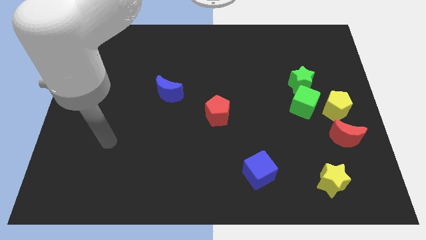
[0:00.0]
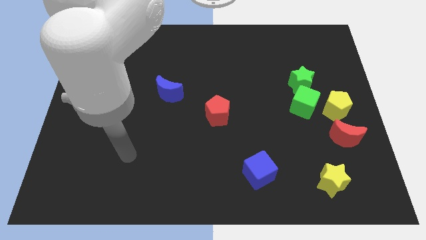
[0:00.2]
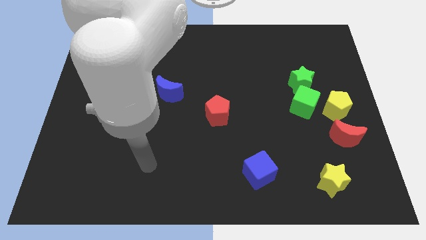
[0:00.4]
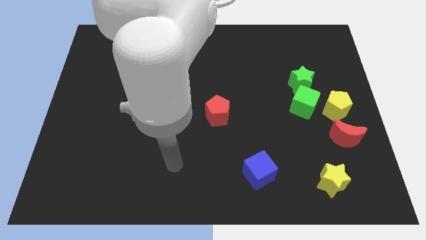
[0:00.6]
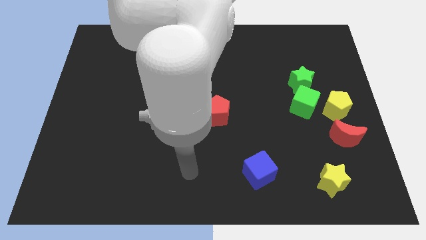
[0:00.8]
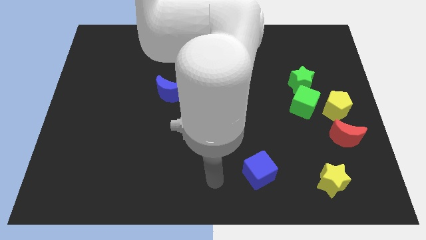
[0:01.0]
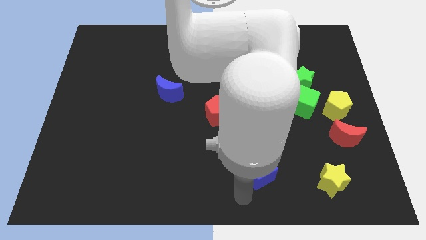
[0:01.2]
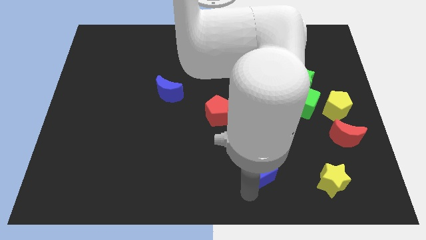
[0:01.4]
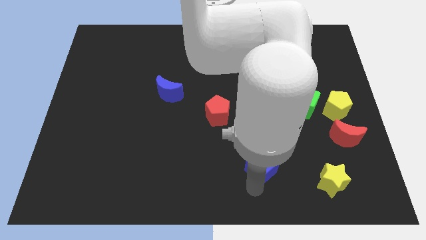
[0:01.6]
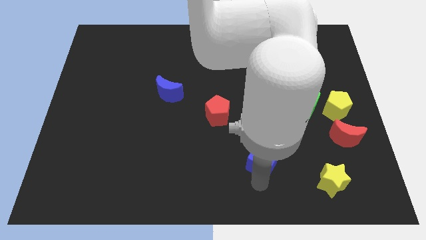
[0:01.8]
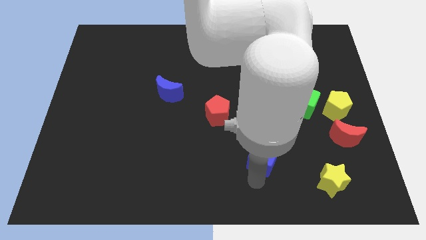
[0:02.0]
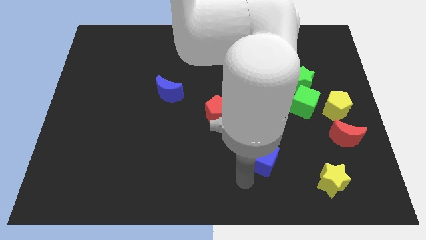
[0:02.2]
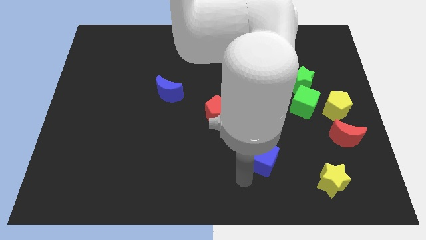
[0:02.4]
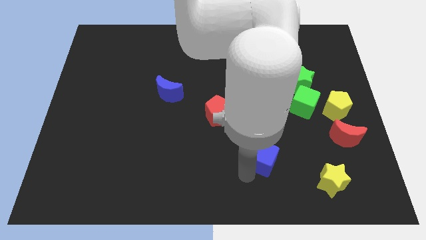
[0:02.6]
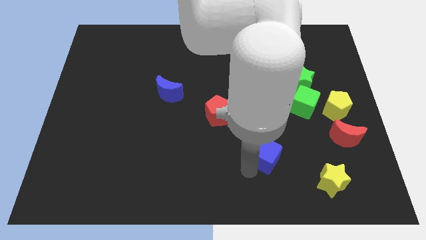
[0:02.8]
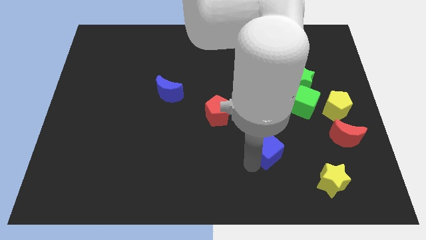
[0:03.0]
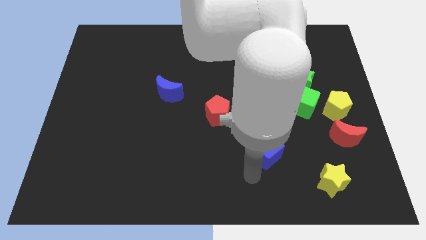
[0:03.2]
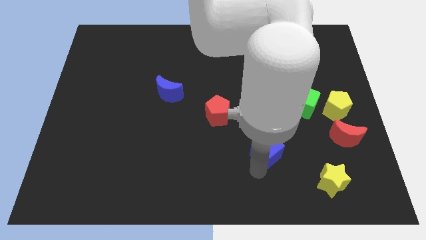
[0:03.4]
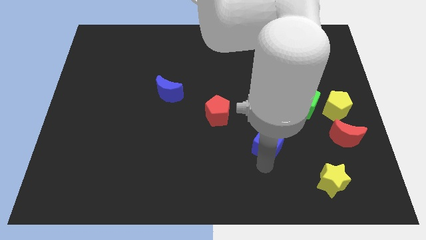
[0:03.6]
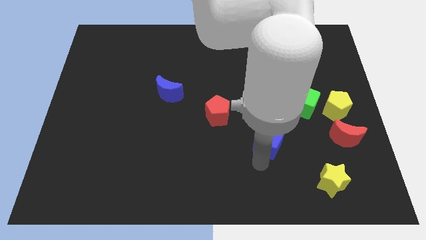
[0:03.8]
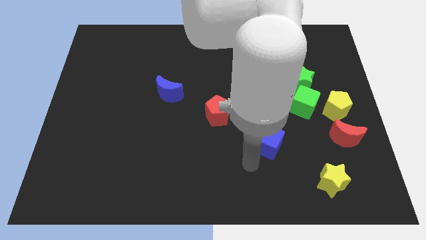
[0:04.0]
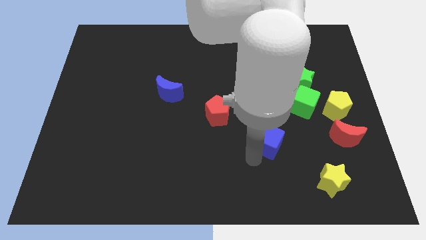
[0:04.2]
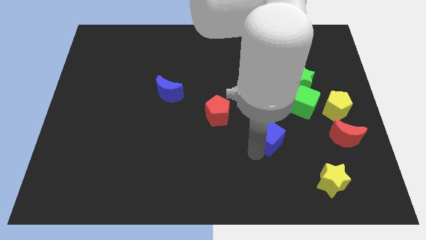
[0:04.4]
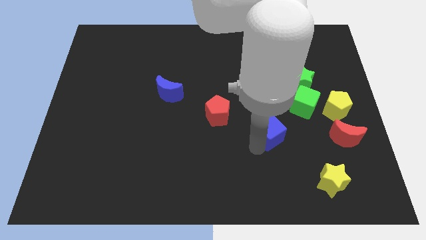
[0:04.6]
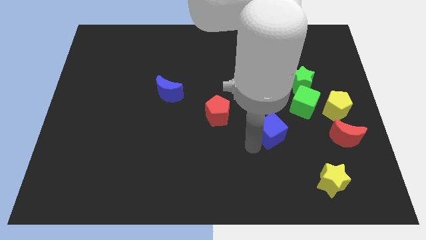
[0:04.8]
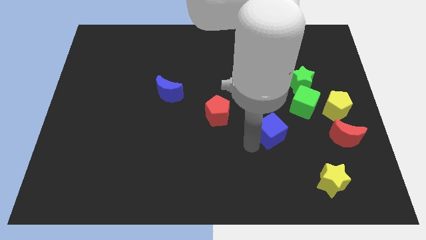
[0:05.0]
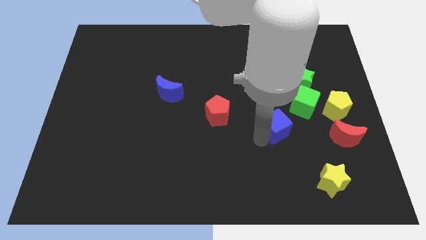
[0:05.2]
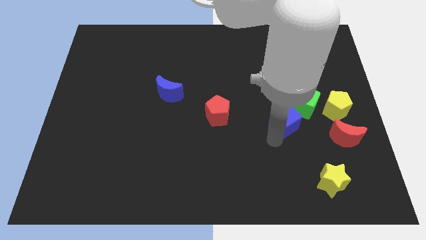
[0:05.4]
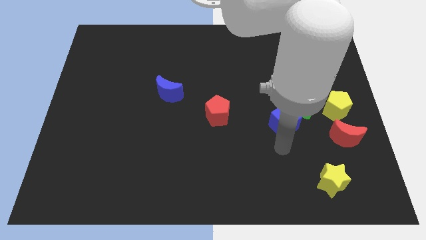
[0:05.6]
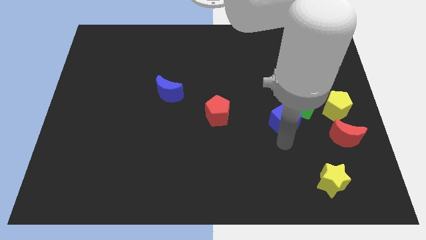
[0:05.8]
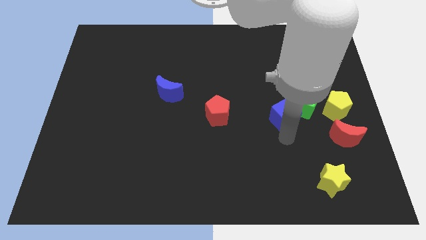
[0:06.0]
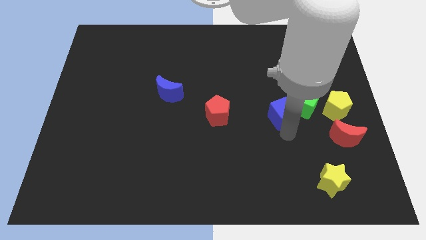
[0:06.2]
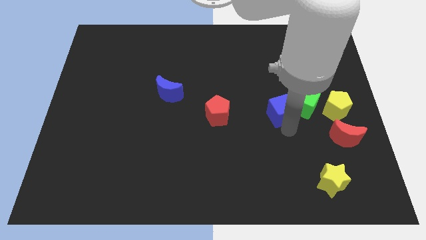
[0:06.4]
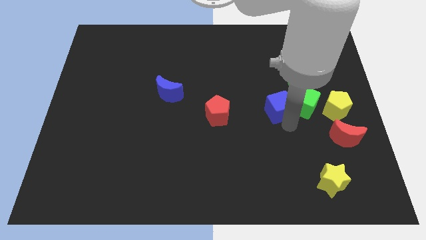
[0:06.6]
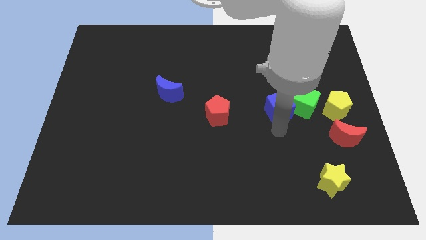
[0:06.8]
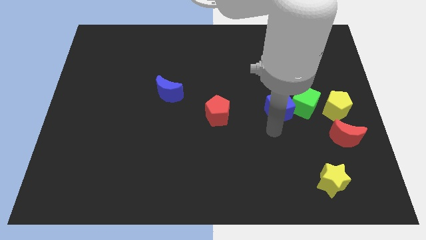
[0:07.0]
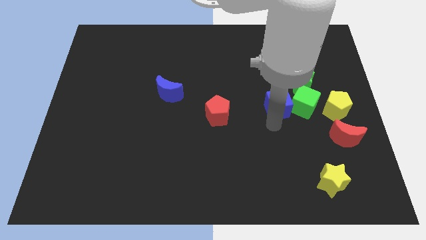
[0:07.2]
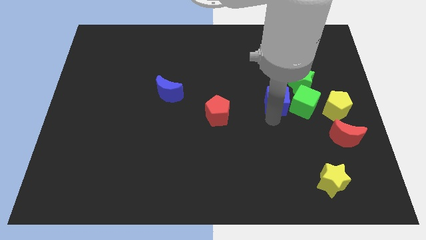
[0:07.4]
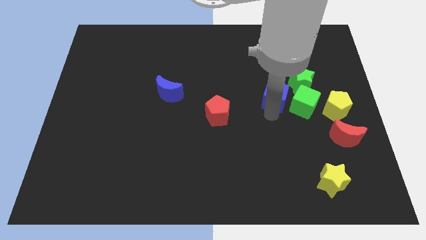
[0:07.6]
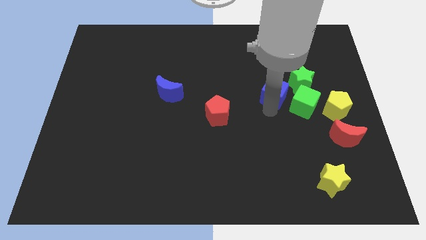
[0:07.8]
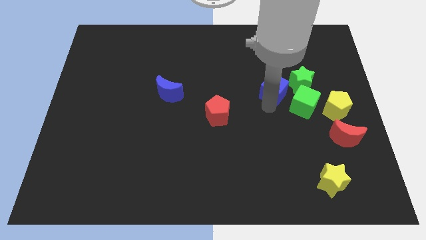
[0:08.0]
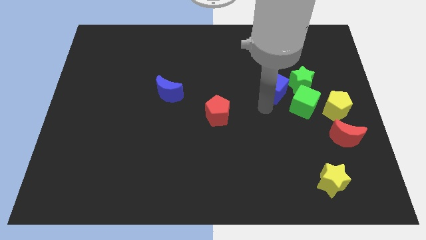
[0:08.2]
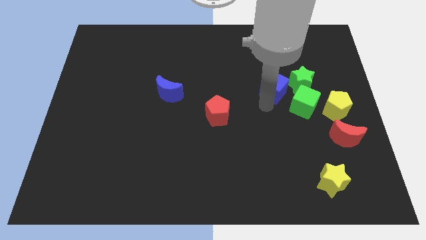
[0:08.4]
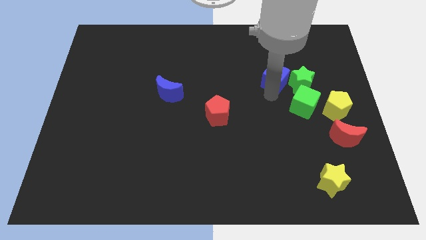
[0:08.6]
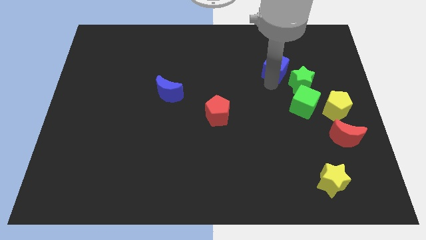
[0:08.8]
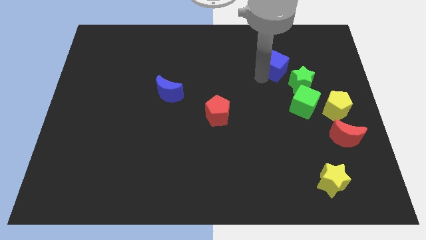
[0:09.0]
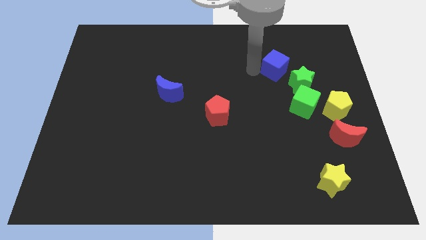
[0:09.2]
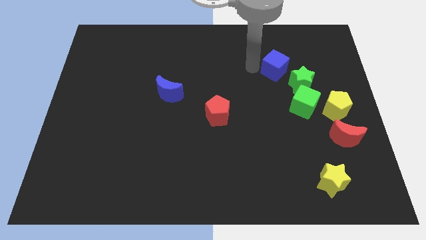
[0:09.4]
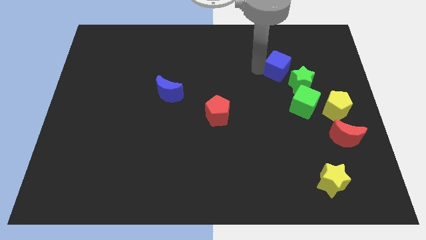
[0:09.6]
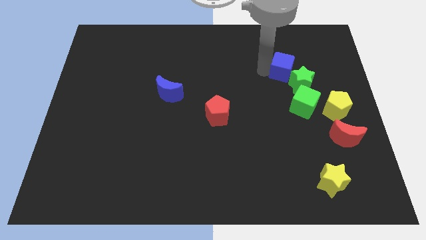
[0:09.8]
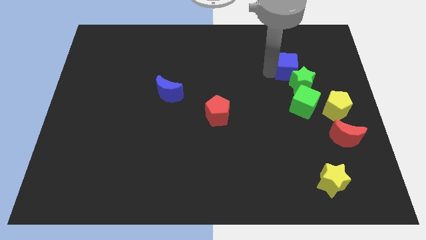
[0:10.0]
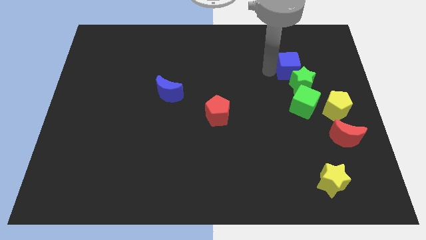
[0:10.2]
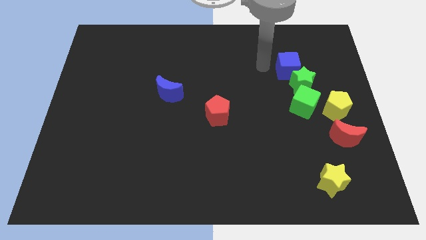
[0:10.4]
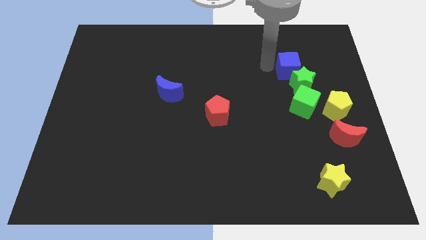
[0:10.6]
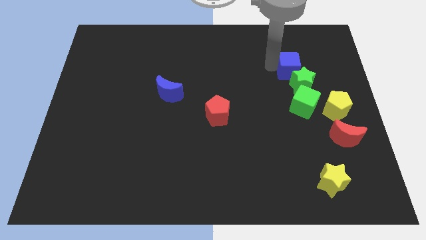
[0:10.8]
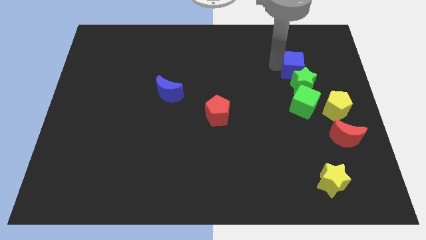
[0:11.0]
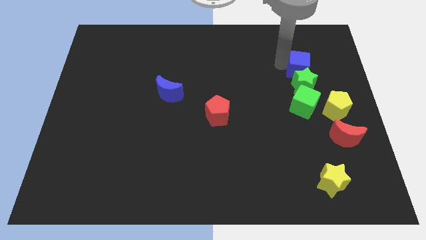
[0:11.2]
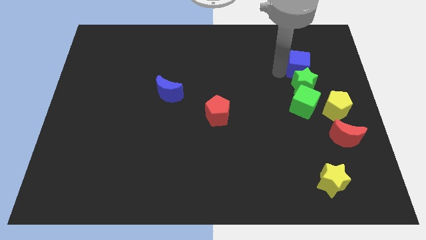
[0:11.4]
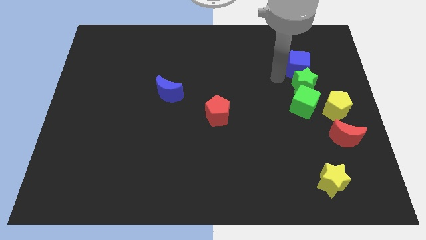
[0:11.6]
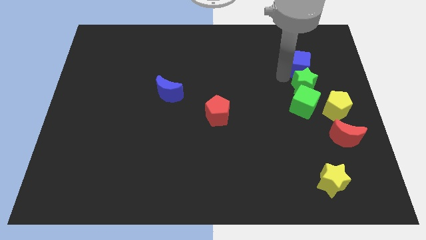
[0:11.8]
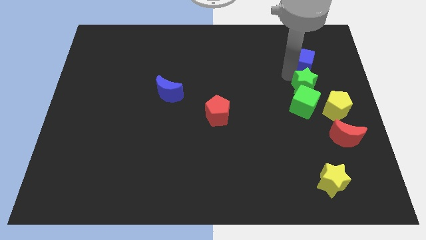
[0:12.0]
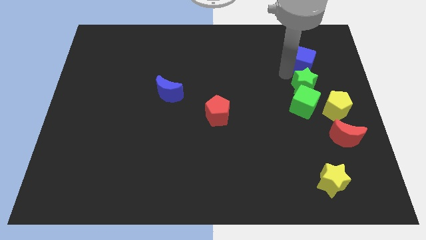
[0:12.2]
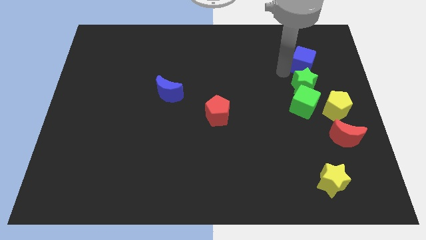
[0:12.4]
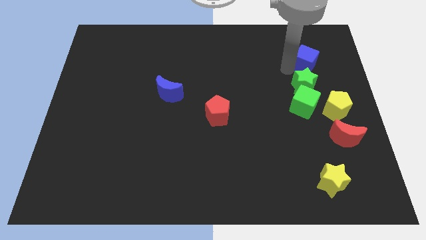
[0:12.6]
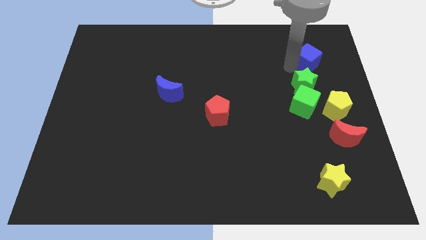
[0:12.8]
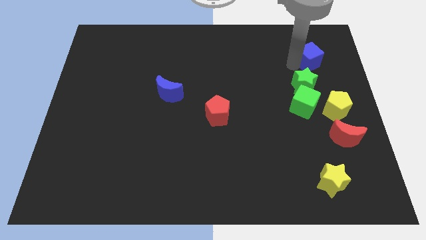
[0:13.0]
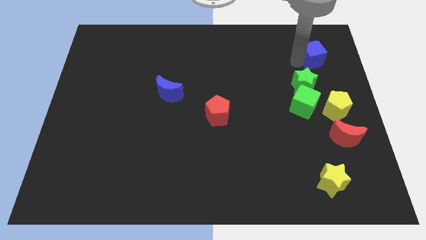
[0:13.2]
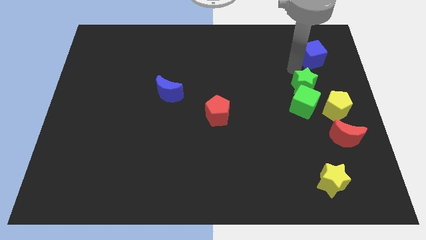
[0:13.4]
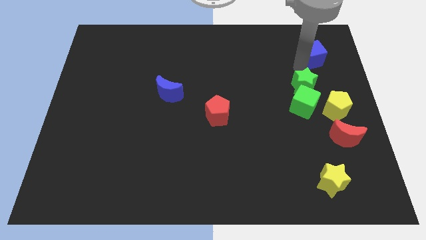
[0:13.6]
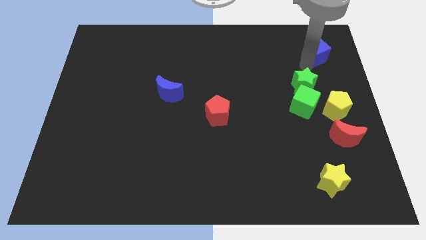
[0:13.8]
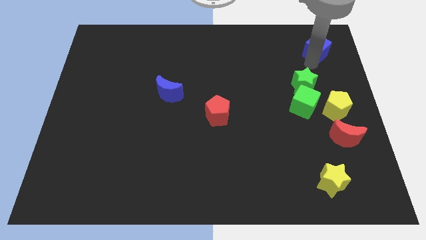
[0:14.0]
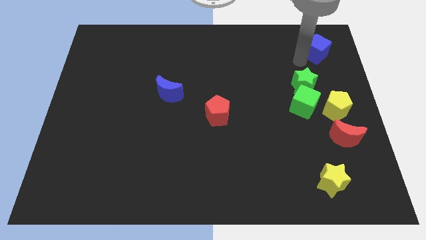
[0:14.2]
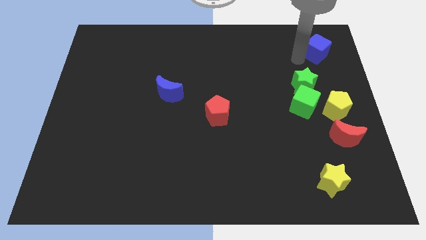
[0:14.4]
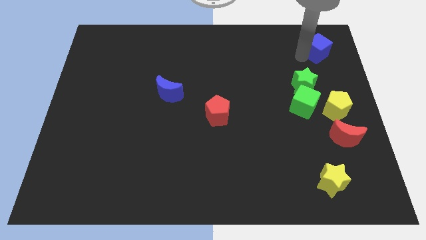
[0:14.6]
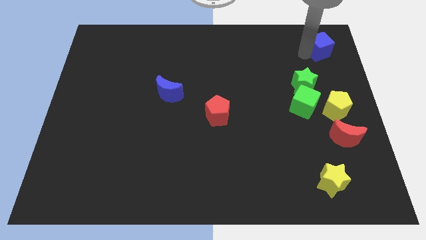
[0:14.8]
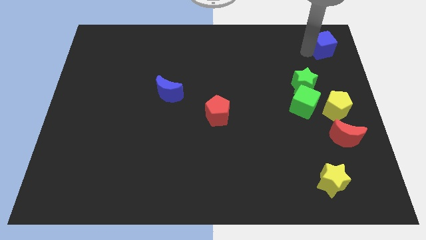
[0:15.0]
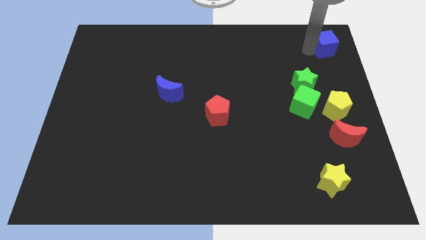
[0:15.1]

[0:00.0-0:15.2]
slide the blue cube to the top right
